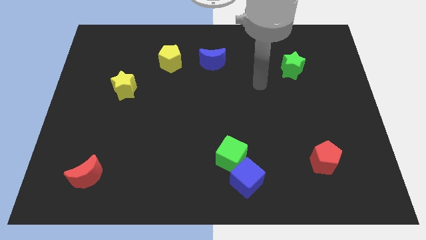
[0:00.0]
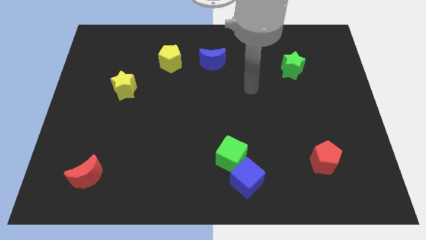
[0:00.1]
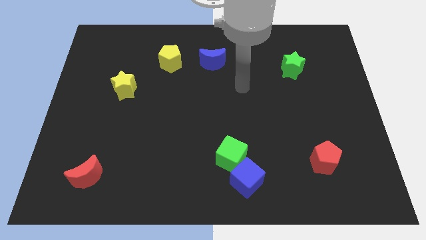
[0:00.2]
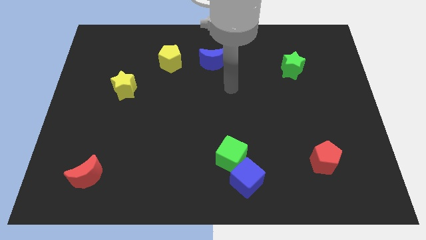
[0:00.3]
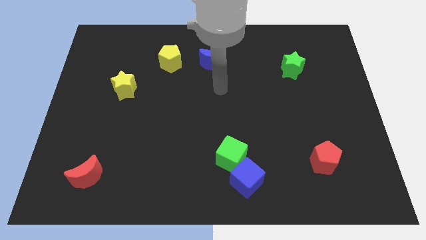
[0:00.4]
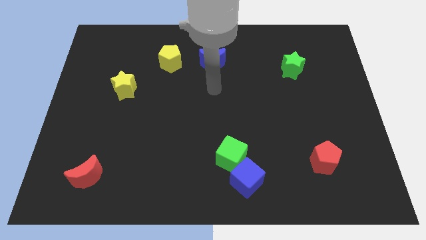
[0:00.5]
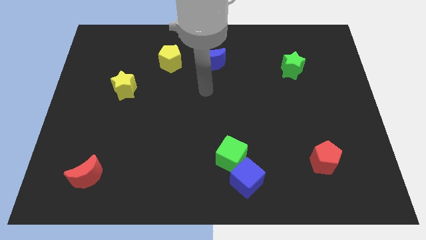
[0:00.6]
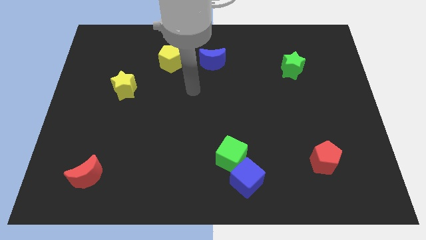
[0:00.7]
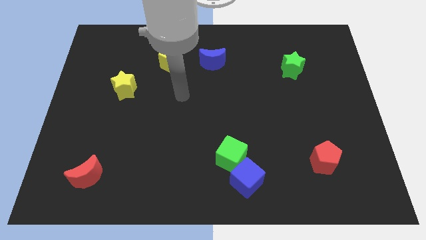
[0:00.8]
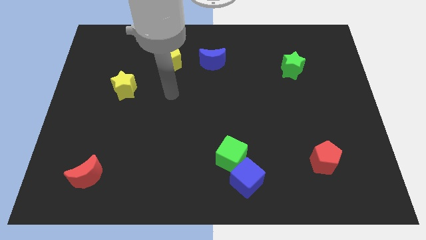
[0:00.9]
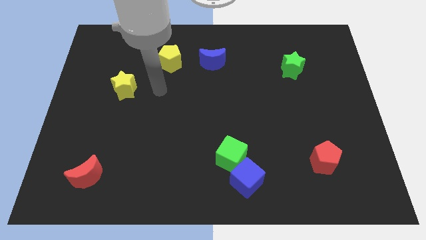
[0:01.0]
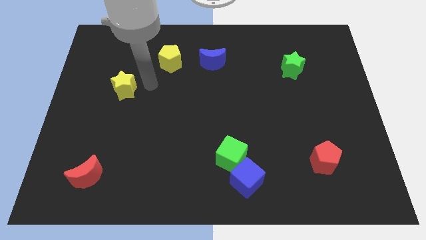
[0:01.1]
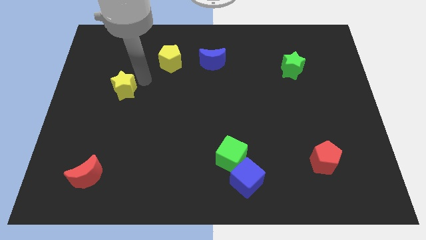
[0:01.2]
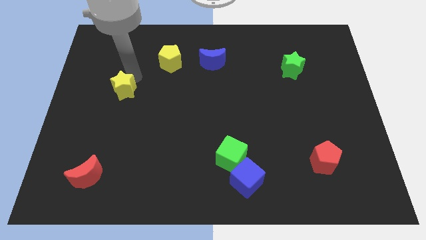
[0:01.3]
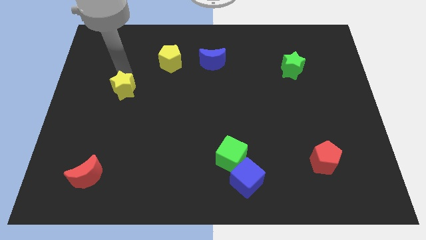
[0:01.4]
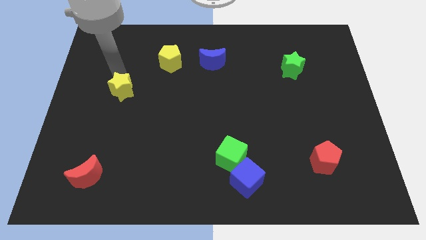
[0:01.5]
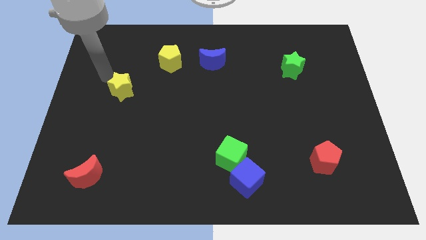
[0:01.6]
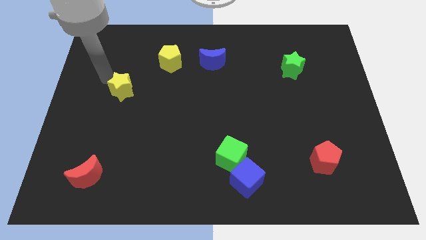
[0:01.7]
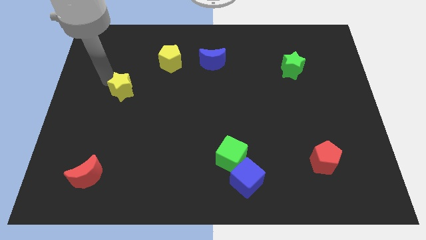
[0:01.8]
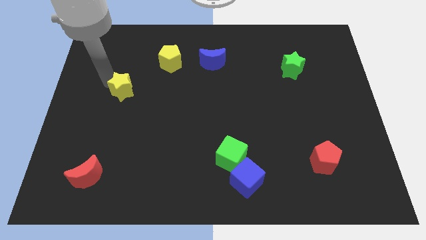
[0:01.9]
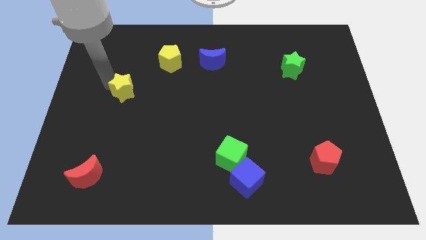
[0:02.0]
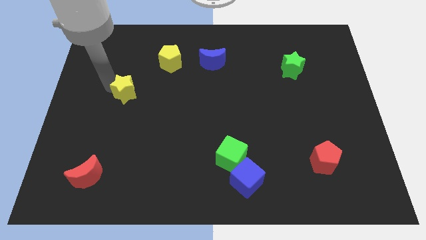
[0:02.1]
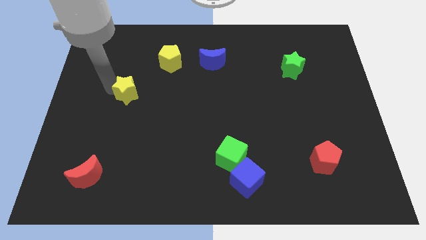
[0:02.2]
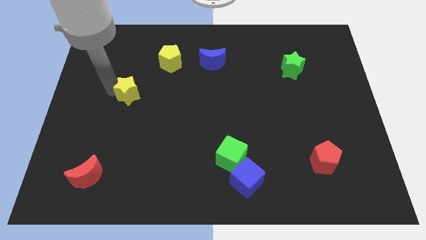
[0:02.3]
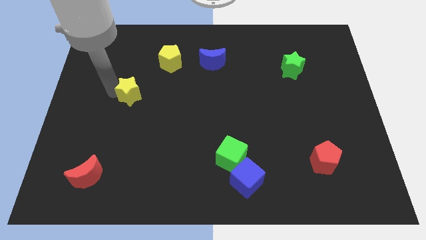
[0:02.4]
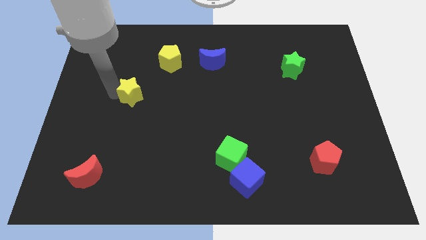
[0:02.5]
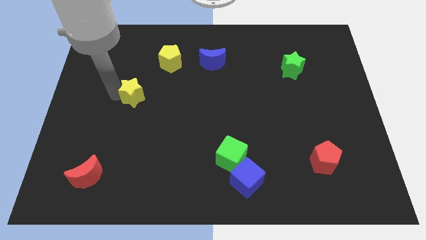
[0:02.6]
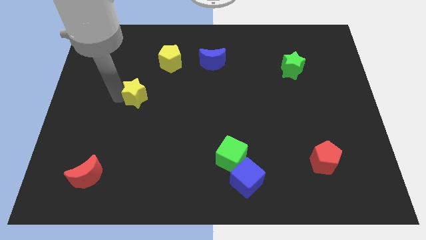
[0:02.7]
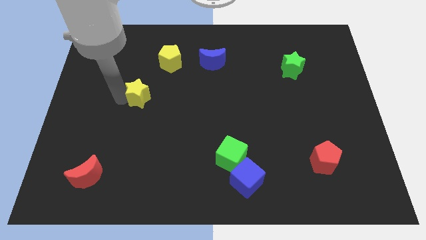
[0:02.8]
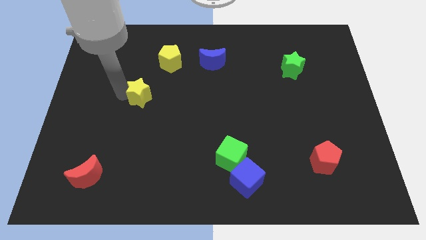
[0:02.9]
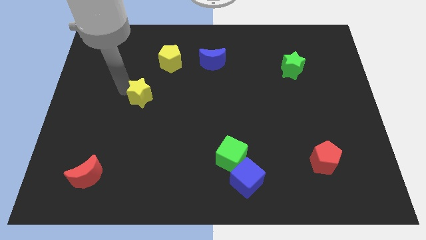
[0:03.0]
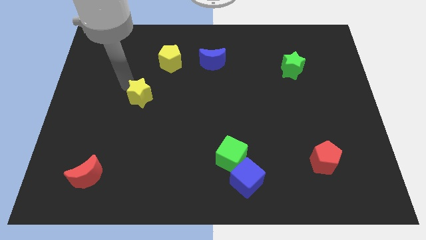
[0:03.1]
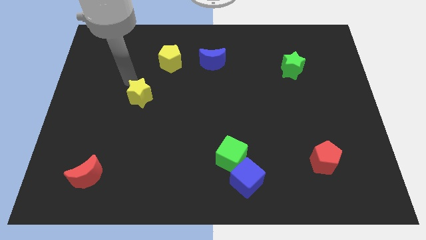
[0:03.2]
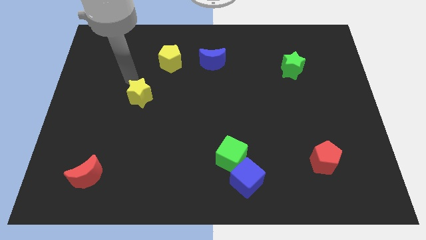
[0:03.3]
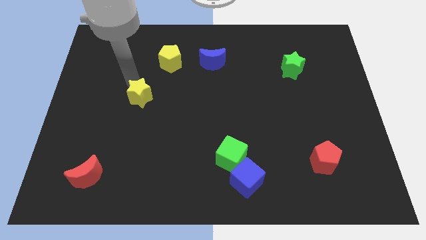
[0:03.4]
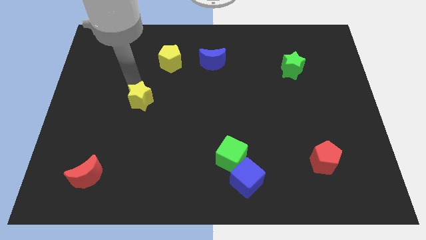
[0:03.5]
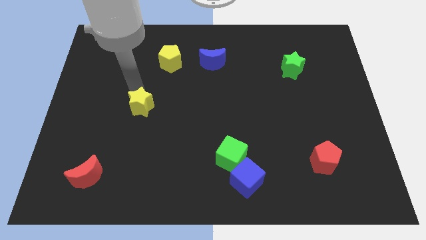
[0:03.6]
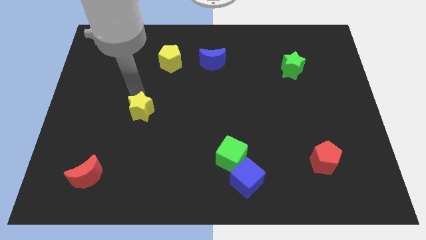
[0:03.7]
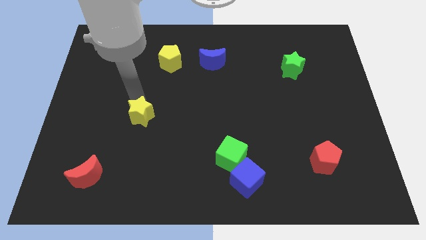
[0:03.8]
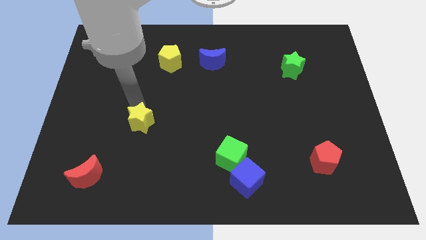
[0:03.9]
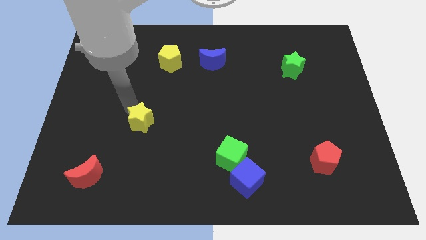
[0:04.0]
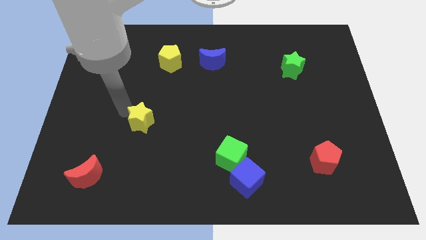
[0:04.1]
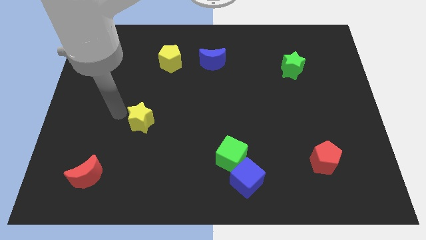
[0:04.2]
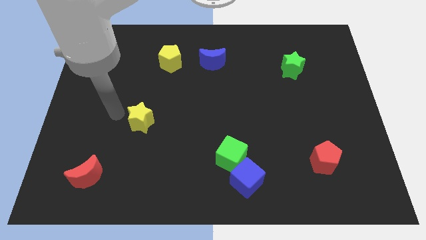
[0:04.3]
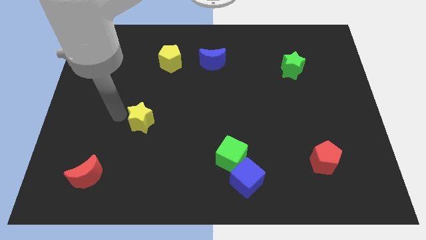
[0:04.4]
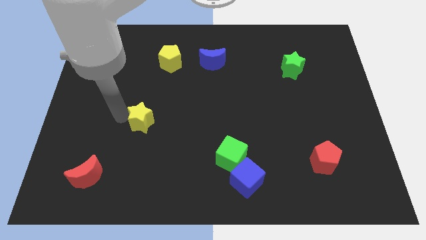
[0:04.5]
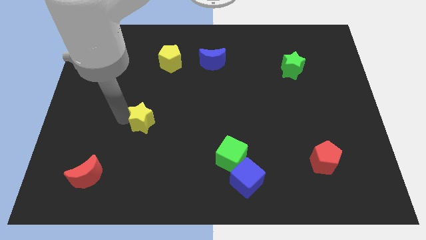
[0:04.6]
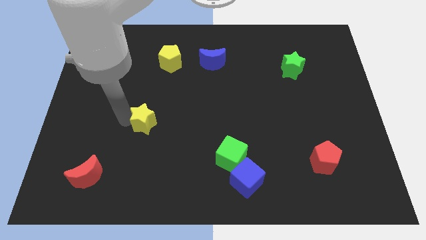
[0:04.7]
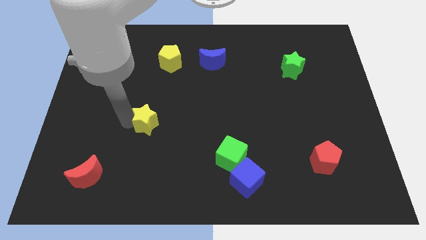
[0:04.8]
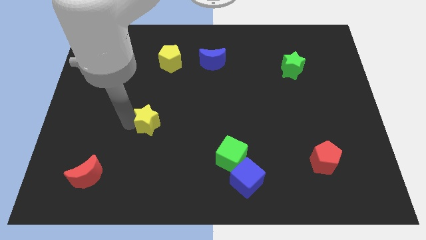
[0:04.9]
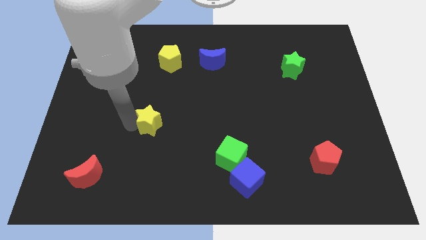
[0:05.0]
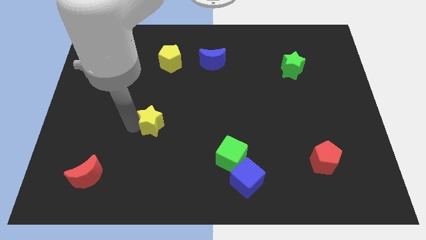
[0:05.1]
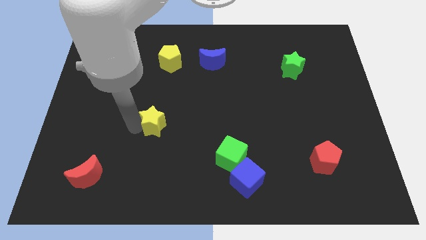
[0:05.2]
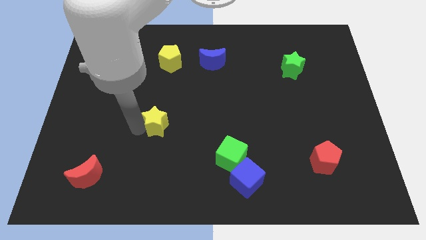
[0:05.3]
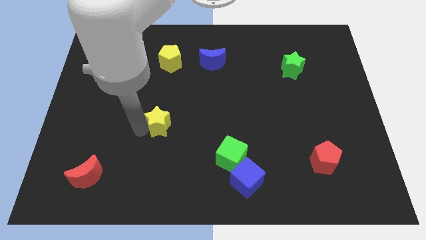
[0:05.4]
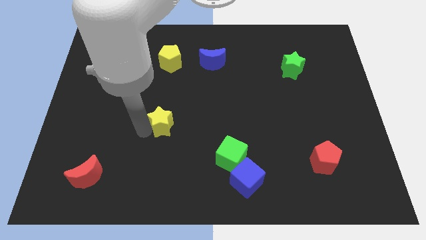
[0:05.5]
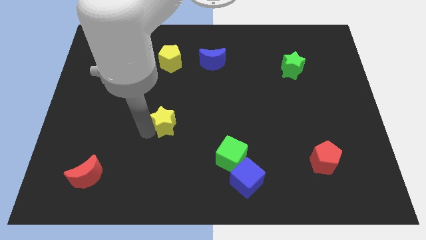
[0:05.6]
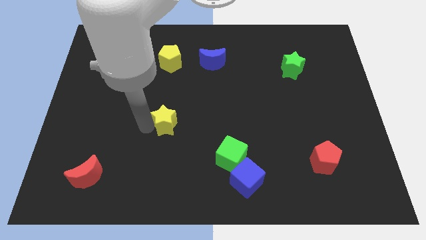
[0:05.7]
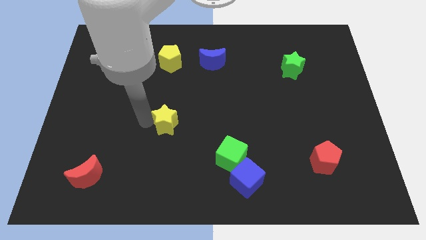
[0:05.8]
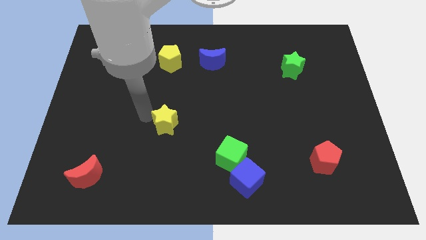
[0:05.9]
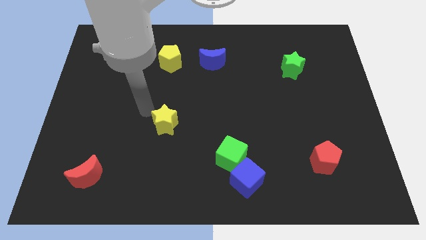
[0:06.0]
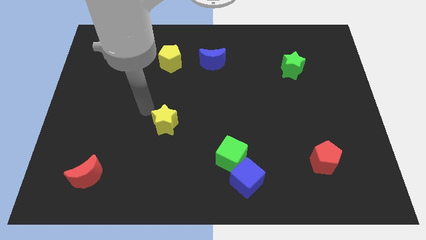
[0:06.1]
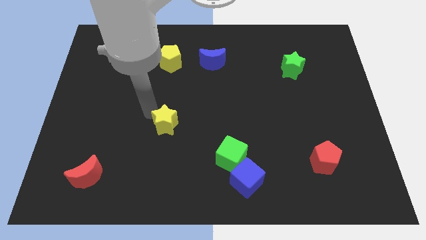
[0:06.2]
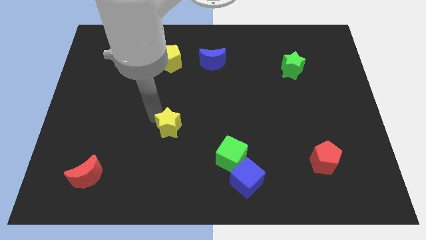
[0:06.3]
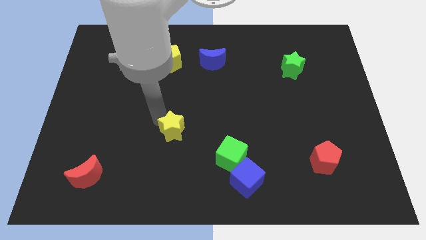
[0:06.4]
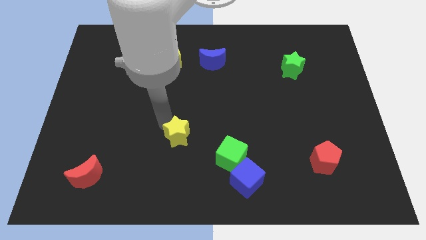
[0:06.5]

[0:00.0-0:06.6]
push the yellow star downwards and right diagonally

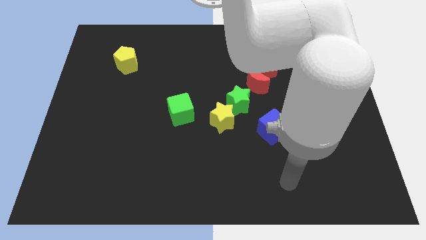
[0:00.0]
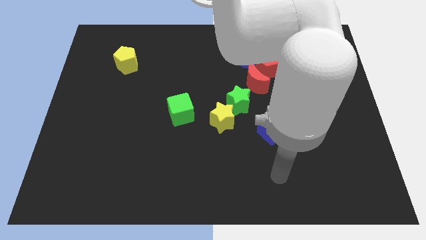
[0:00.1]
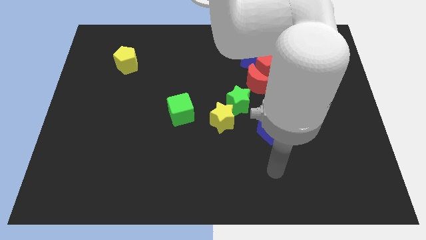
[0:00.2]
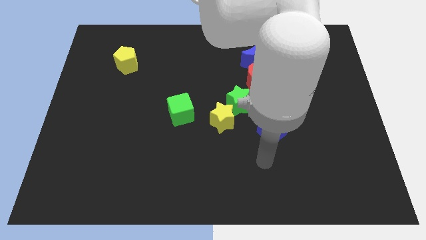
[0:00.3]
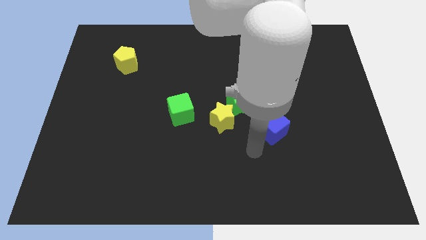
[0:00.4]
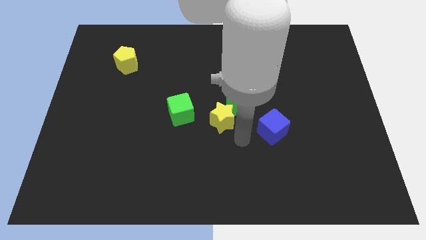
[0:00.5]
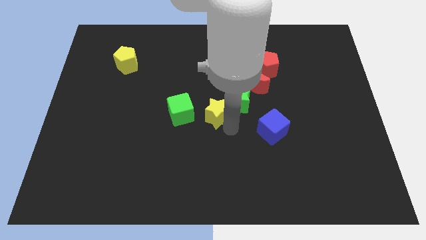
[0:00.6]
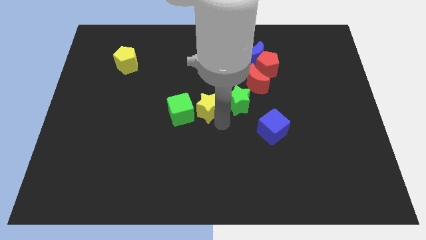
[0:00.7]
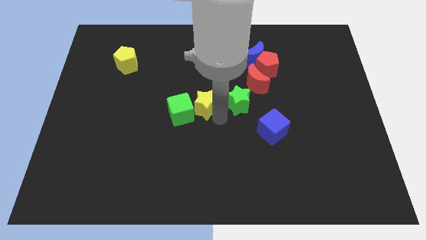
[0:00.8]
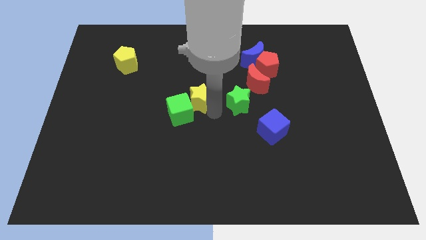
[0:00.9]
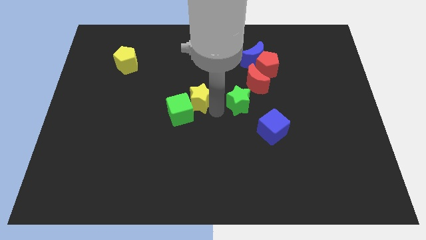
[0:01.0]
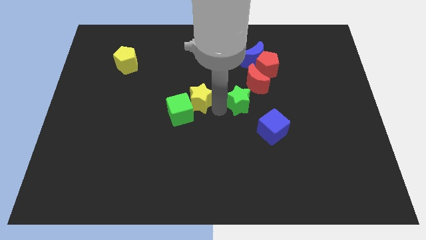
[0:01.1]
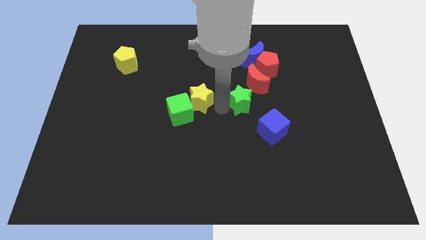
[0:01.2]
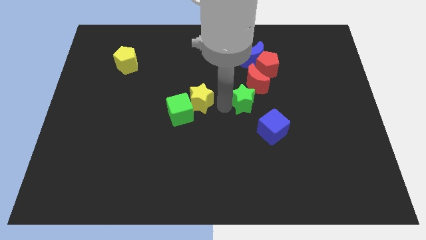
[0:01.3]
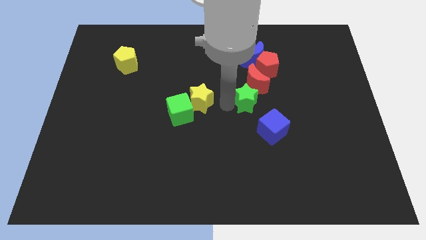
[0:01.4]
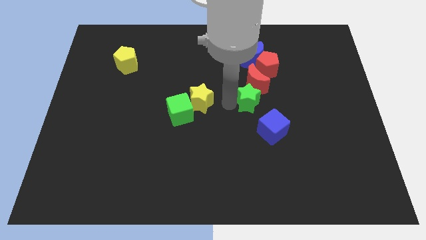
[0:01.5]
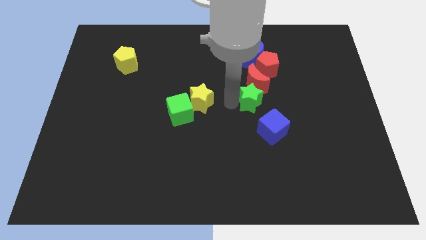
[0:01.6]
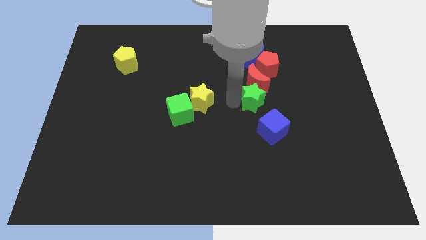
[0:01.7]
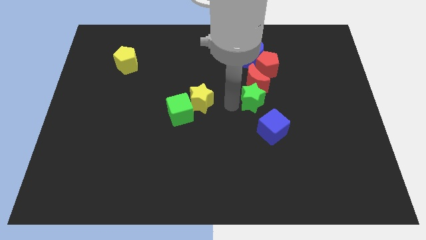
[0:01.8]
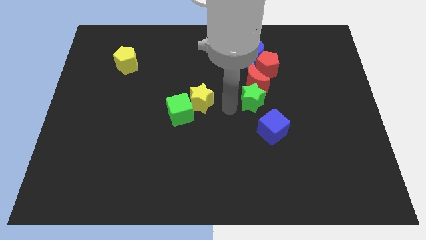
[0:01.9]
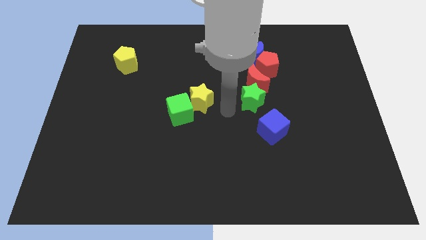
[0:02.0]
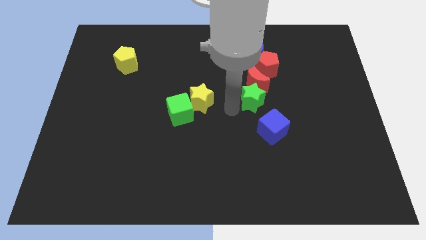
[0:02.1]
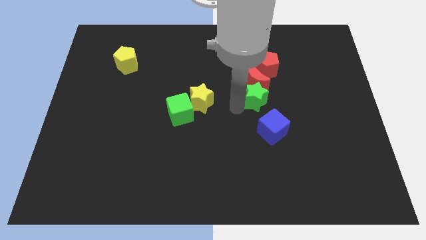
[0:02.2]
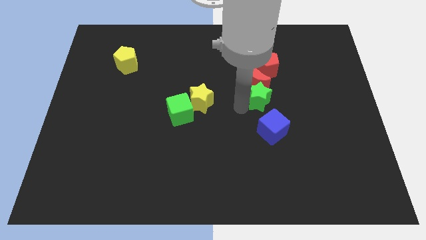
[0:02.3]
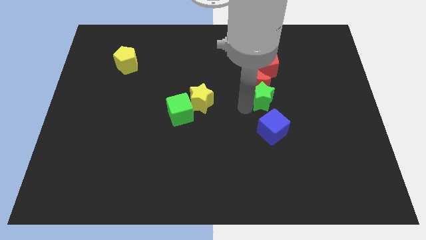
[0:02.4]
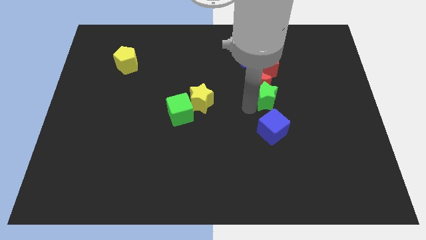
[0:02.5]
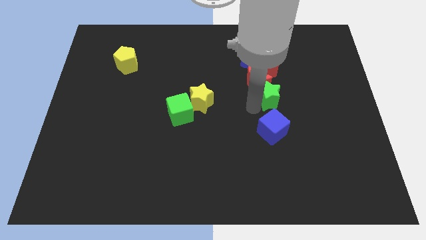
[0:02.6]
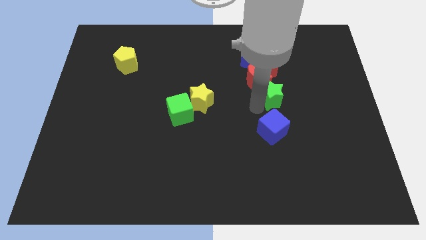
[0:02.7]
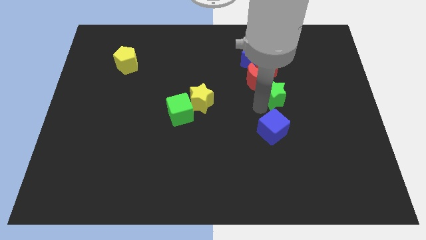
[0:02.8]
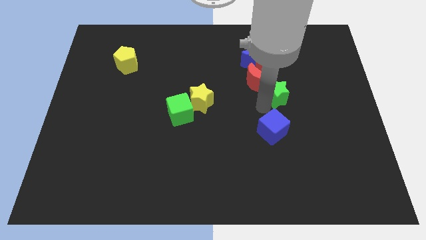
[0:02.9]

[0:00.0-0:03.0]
slide the green star upwards and to the right somewhat
